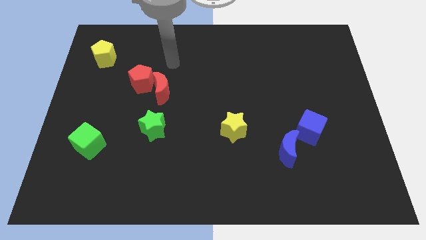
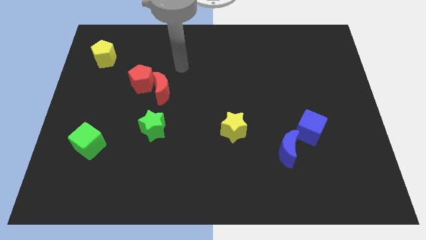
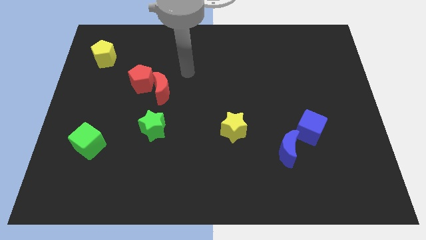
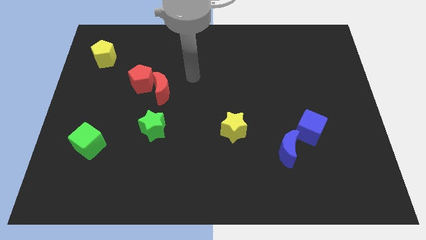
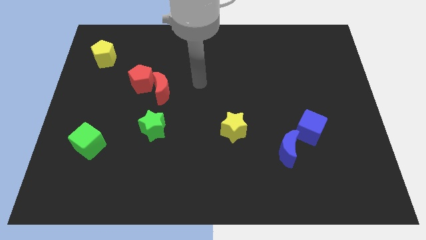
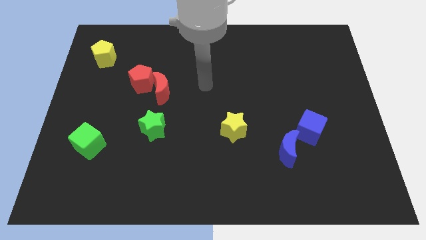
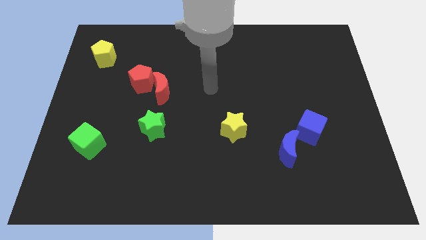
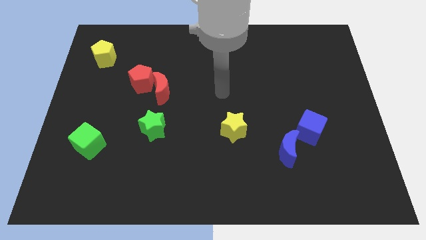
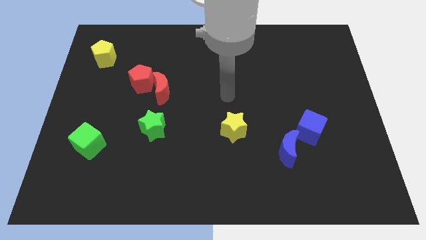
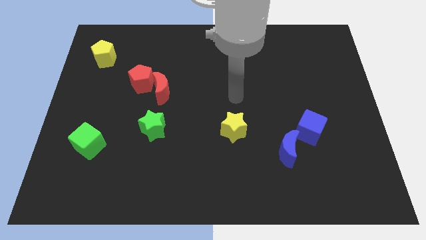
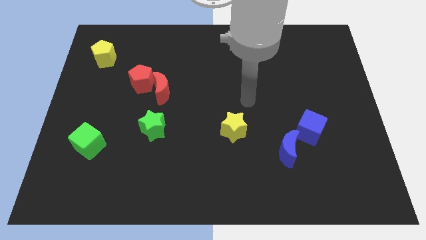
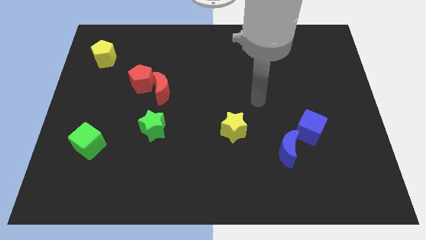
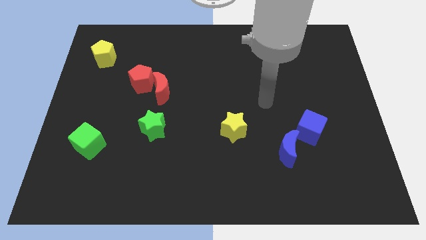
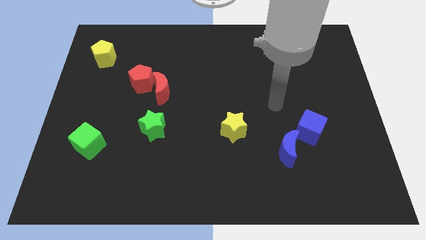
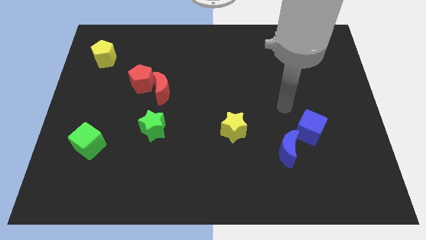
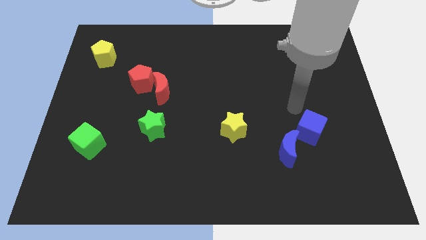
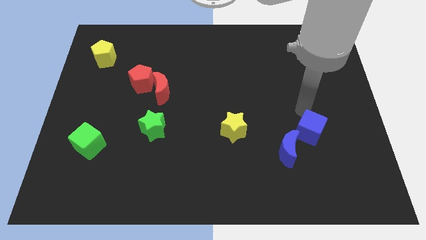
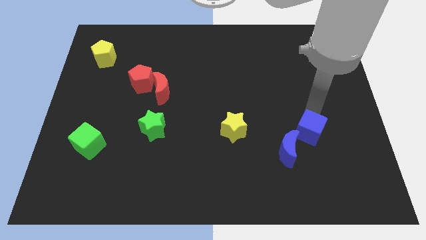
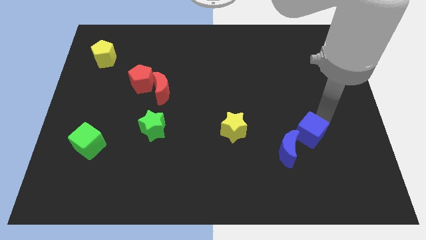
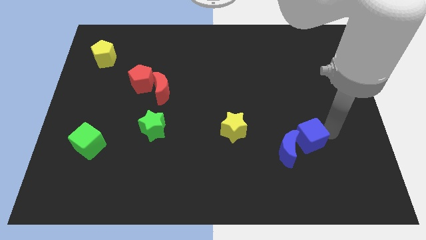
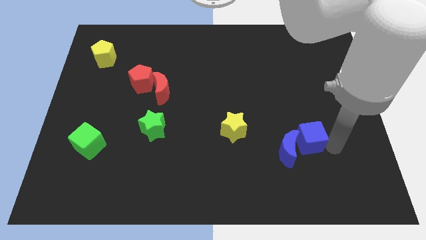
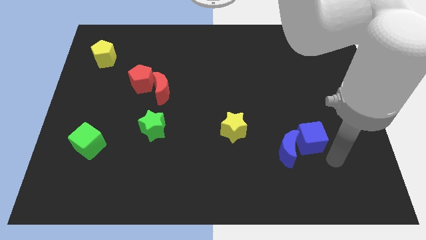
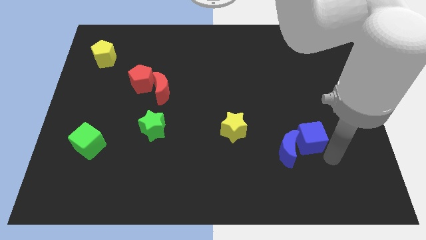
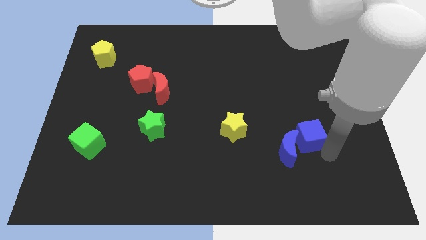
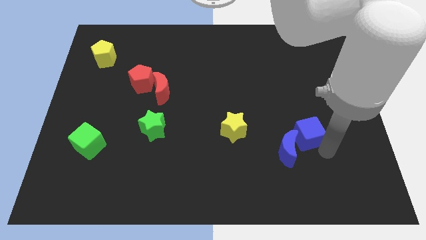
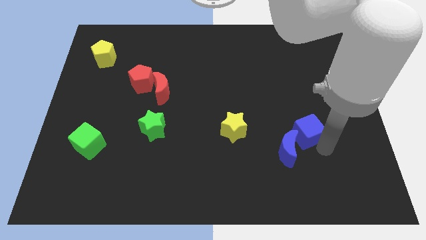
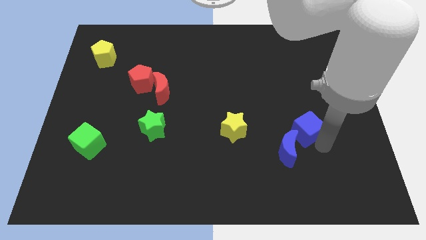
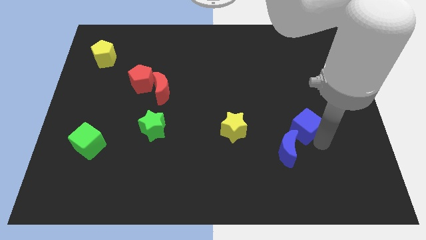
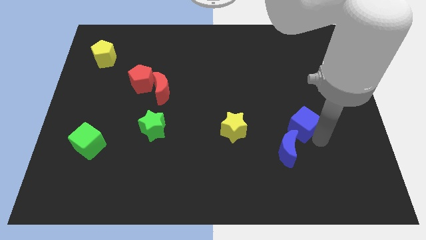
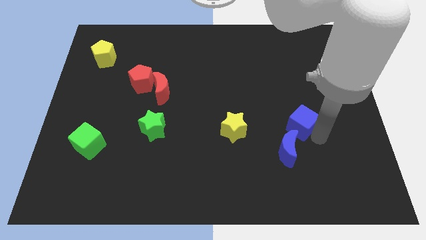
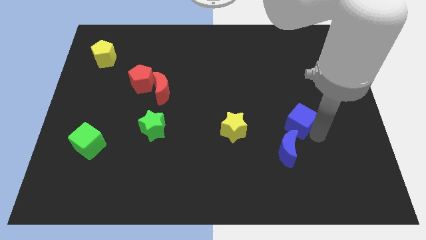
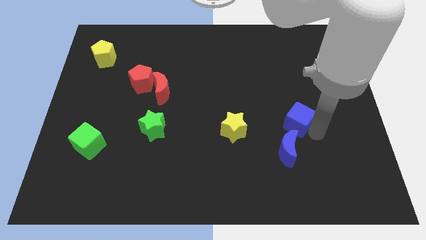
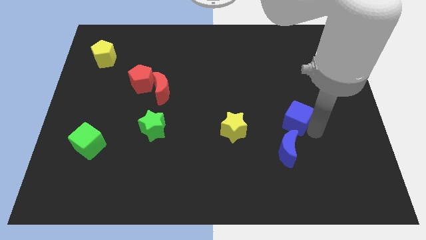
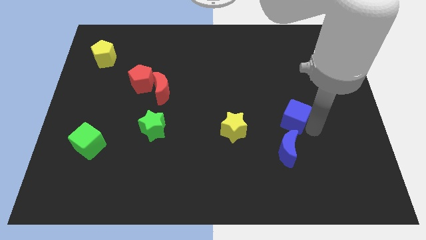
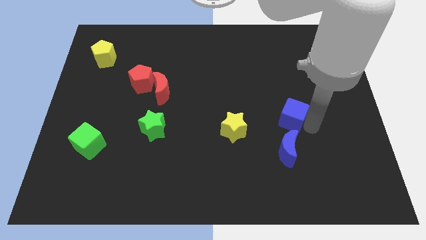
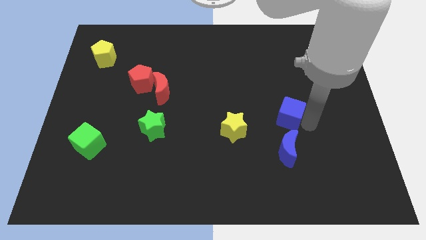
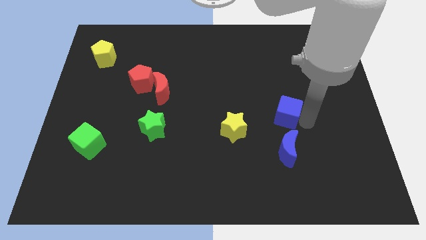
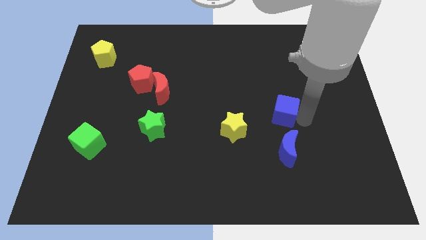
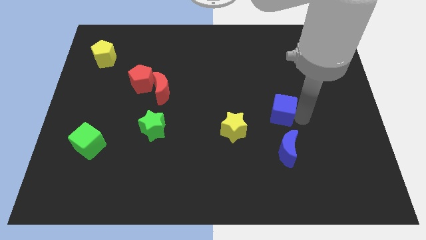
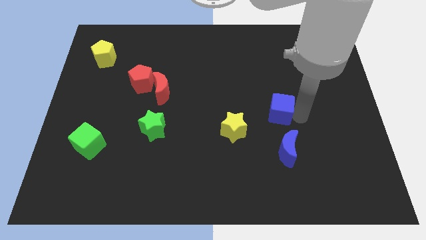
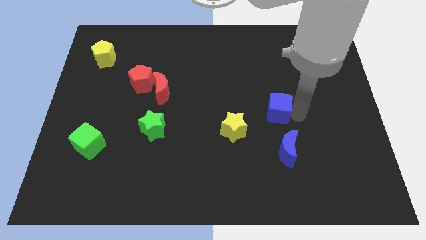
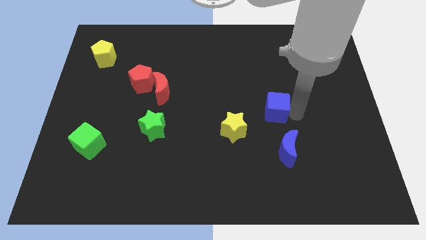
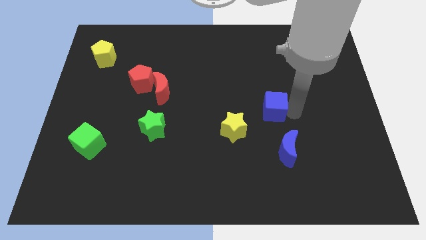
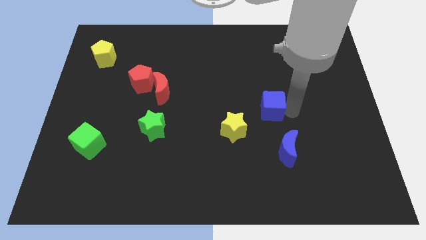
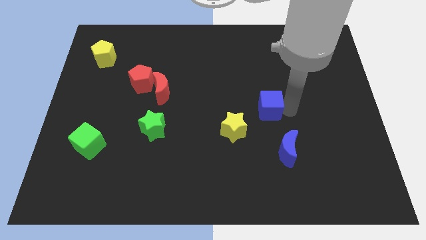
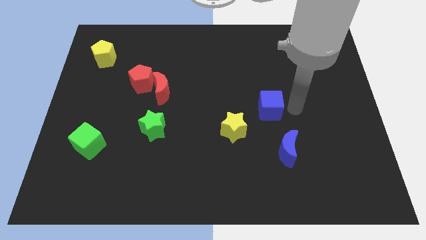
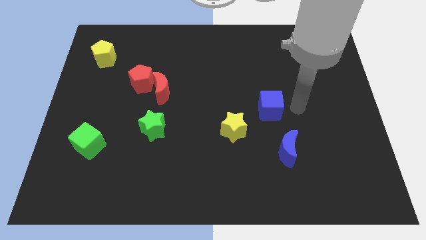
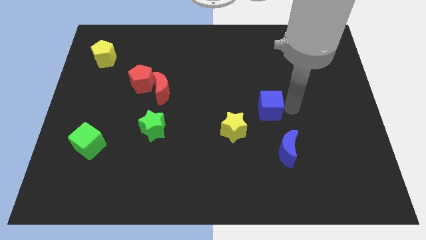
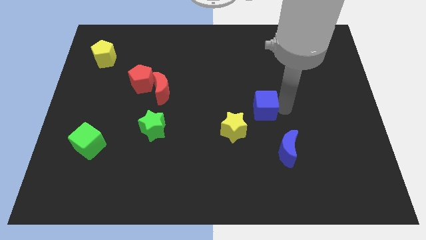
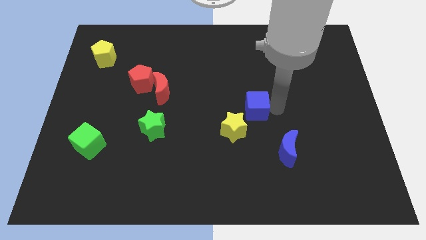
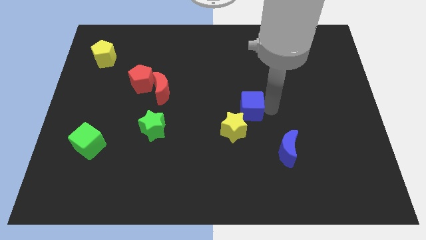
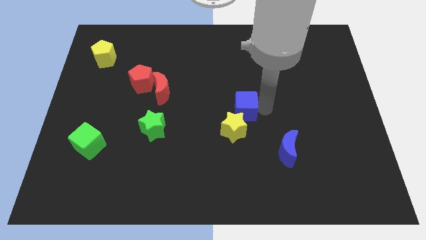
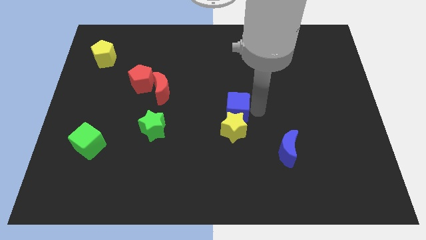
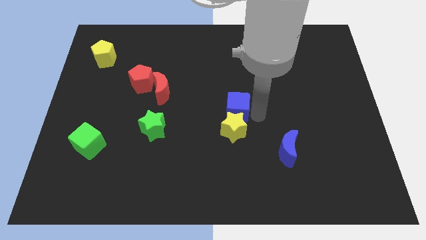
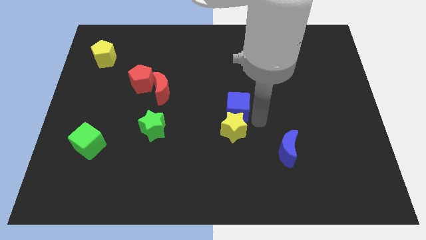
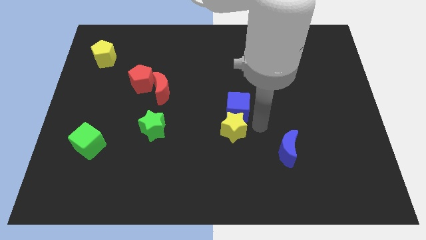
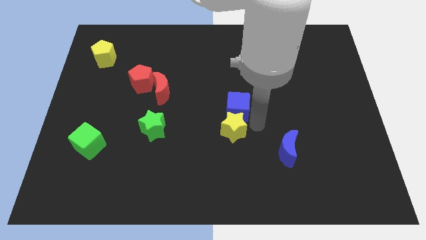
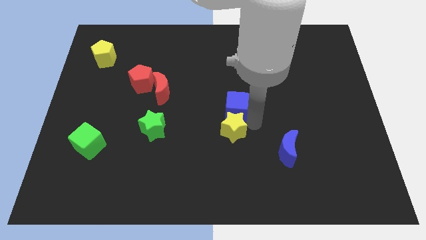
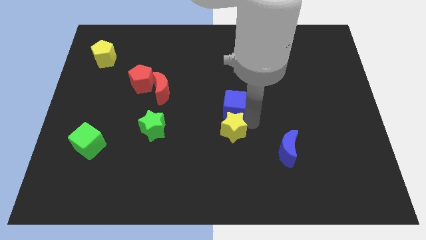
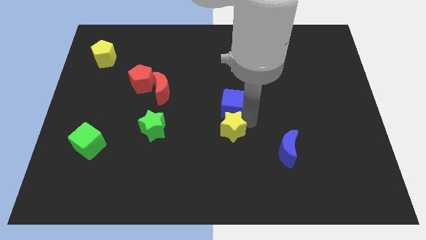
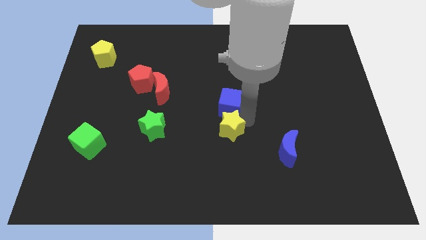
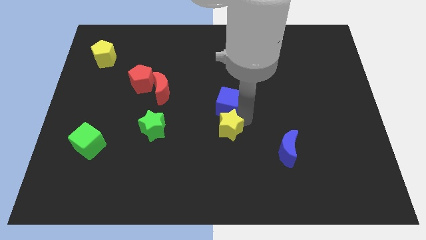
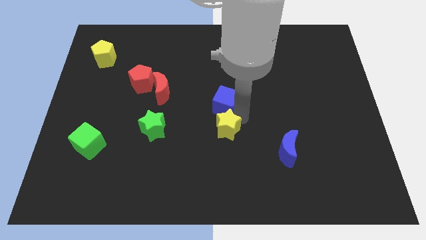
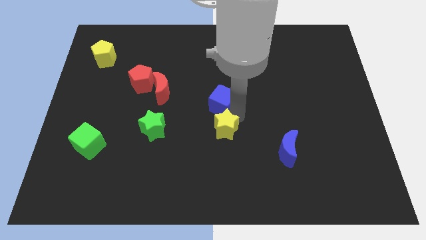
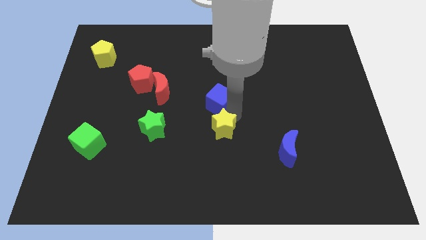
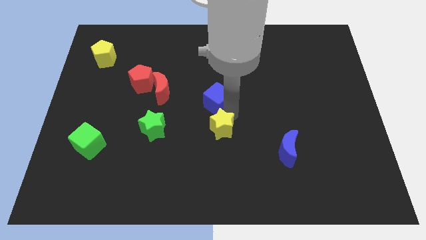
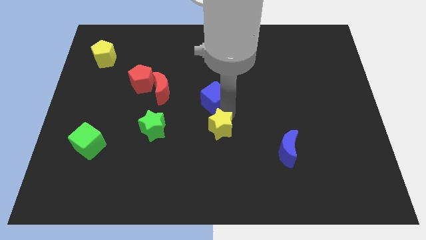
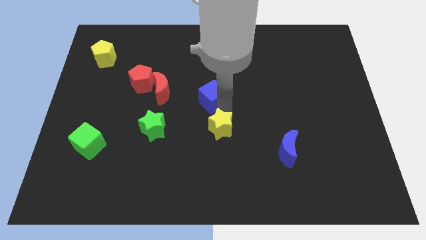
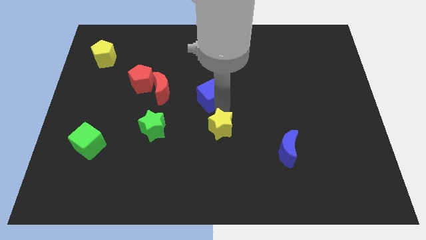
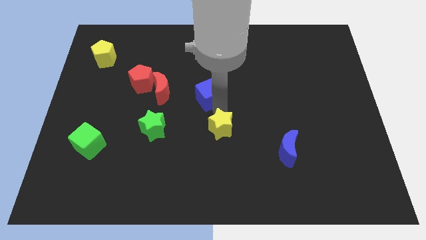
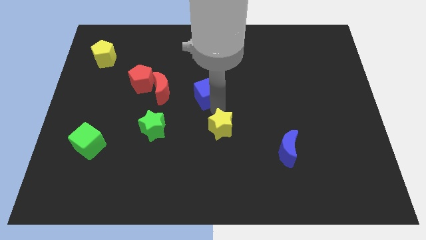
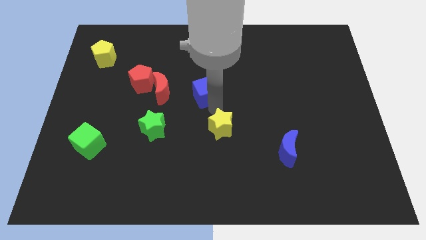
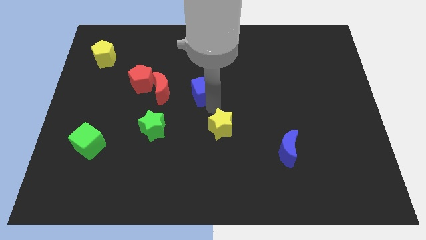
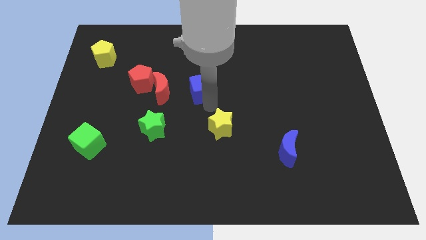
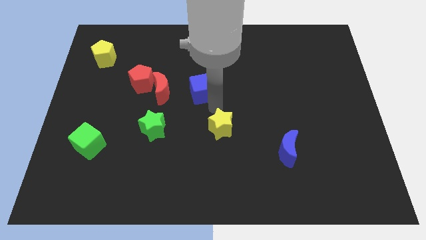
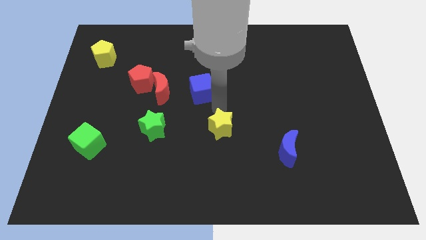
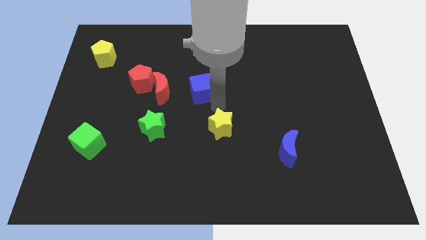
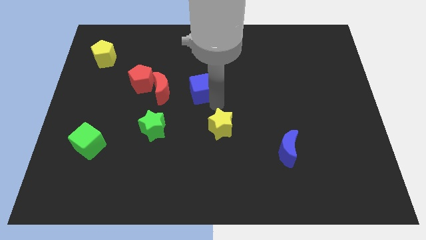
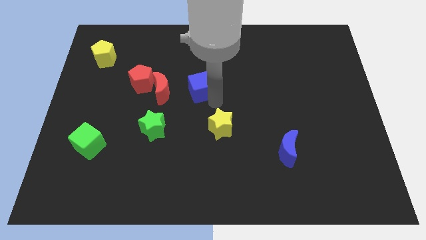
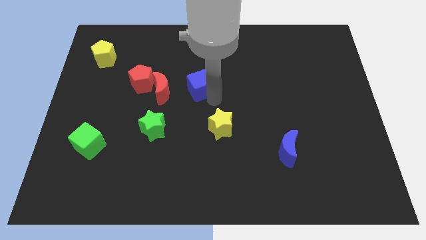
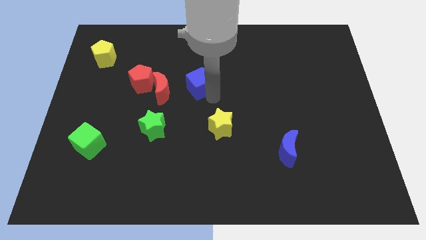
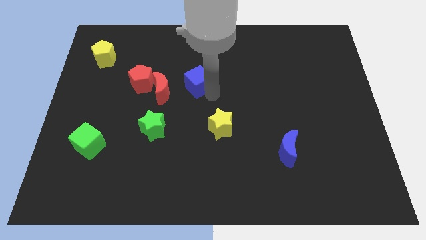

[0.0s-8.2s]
put the blue cube to the top right side of the red moon
